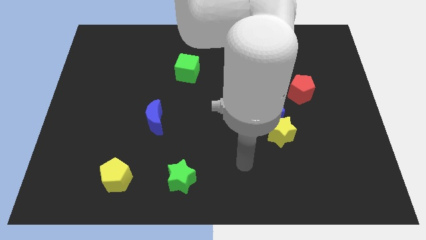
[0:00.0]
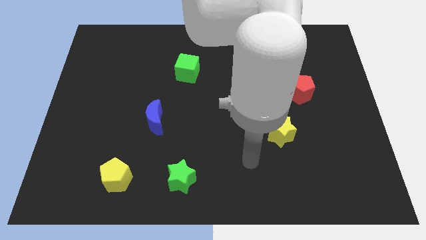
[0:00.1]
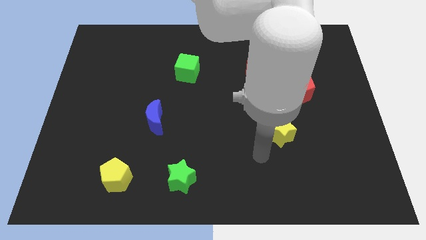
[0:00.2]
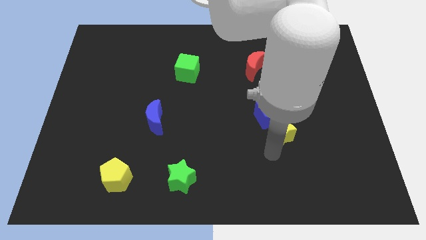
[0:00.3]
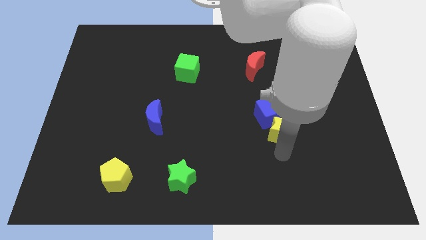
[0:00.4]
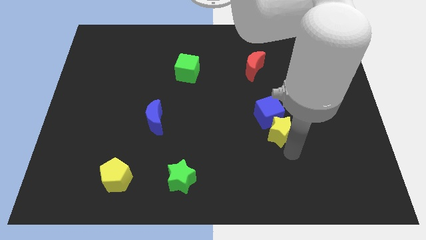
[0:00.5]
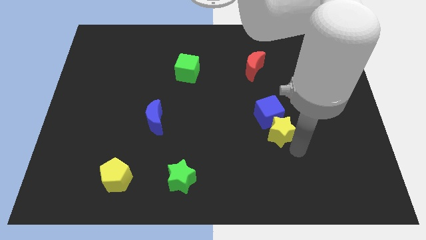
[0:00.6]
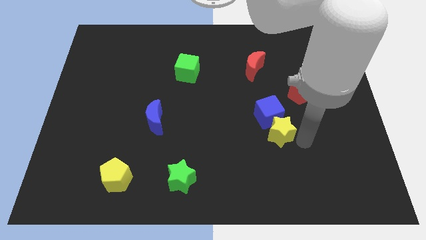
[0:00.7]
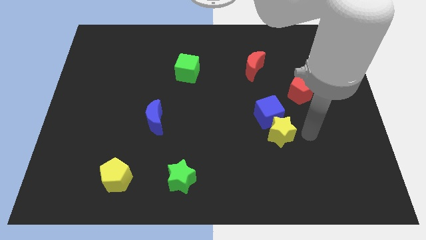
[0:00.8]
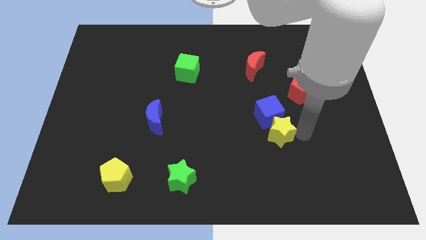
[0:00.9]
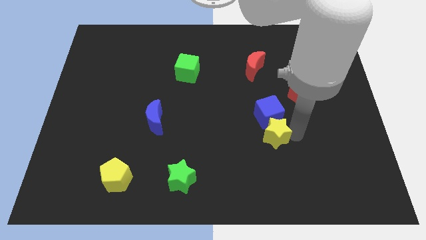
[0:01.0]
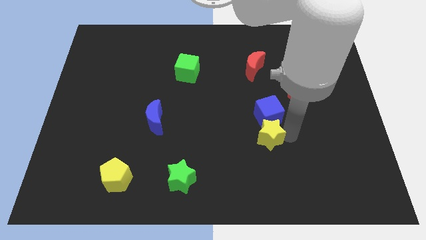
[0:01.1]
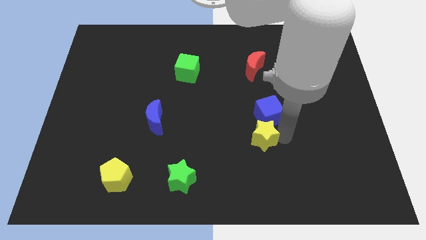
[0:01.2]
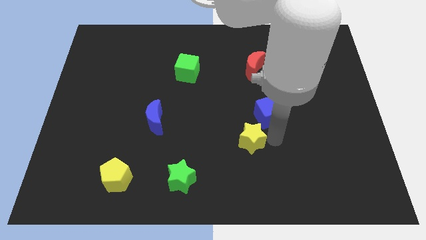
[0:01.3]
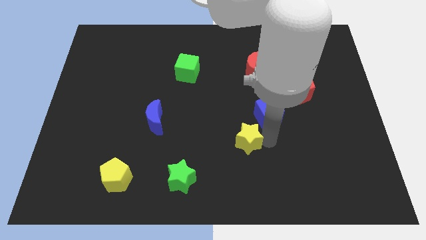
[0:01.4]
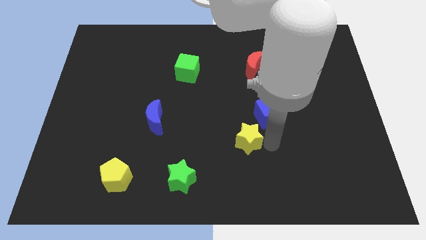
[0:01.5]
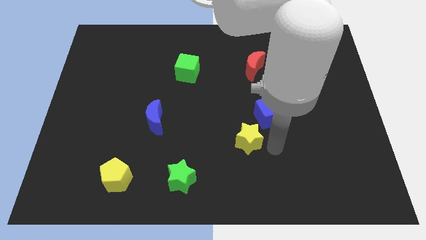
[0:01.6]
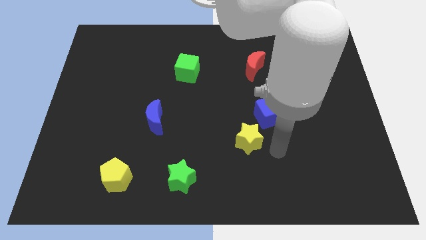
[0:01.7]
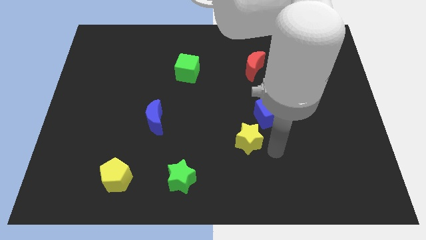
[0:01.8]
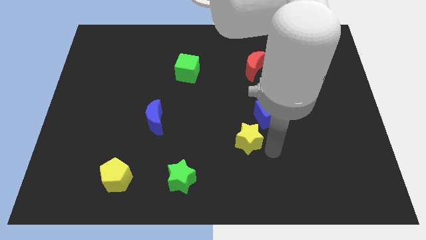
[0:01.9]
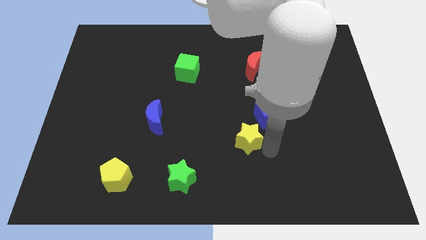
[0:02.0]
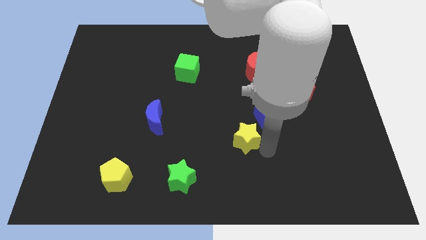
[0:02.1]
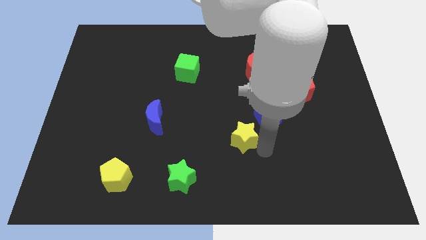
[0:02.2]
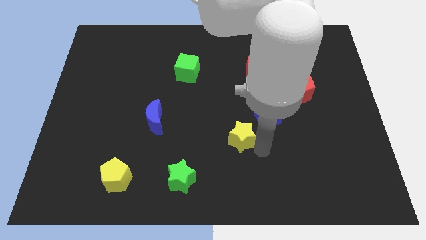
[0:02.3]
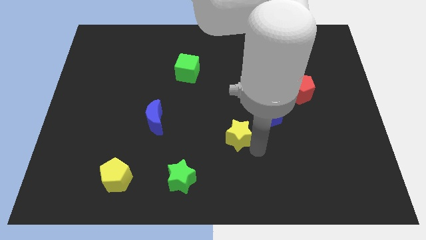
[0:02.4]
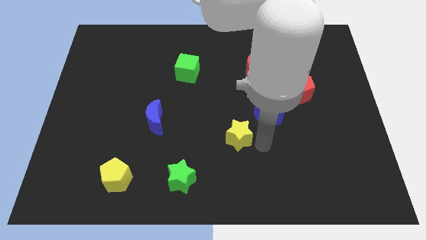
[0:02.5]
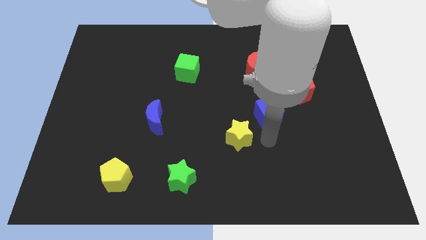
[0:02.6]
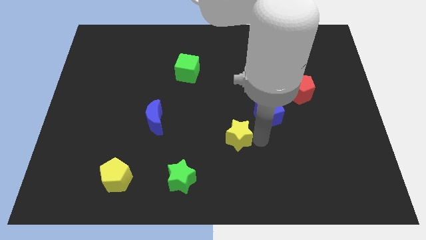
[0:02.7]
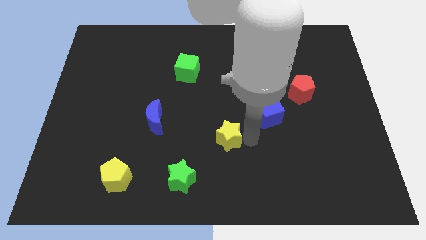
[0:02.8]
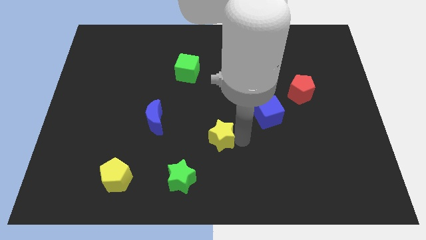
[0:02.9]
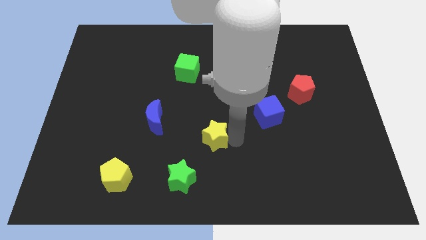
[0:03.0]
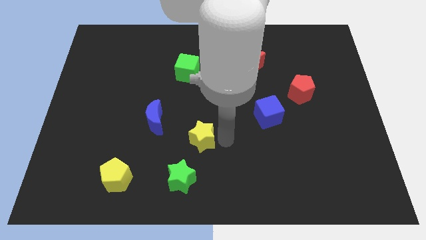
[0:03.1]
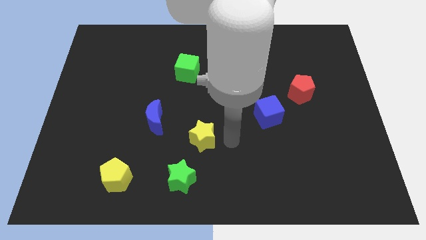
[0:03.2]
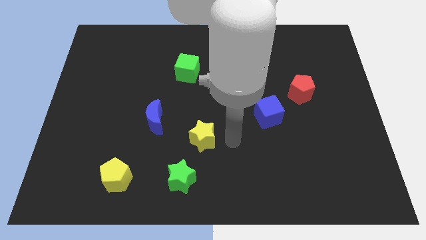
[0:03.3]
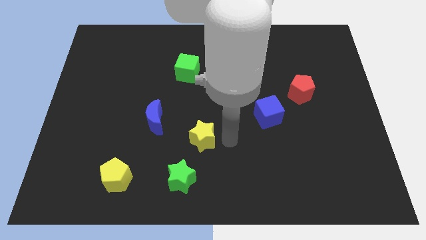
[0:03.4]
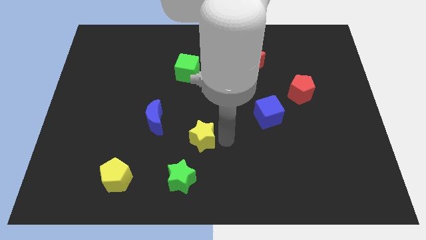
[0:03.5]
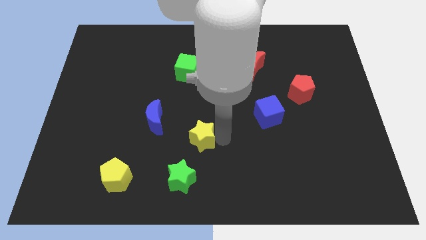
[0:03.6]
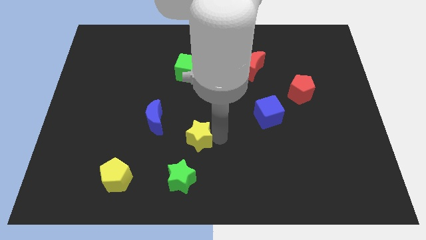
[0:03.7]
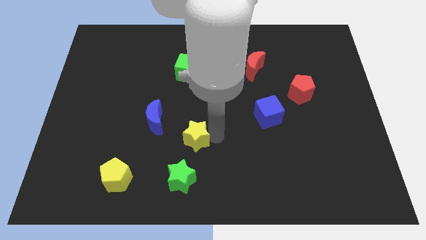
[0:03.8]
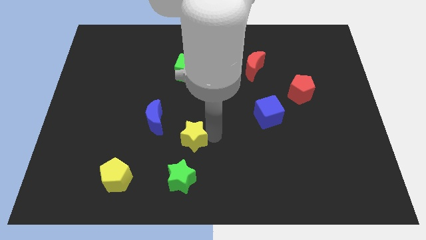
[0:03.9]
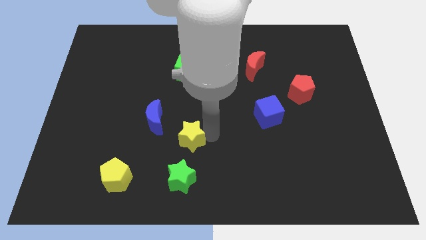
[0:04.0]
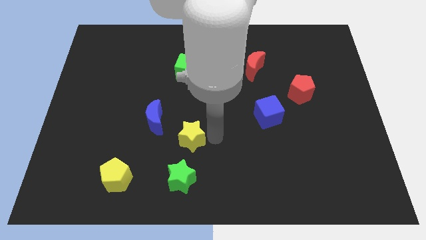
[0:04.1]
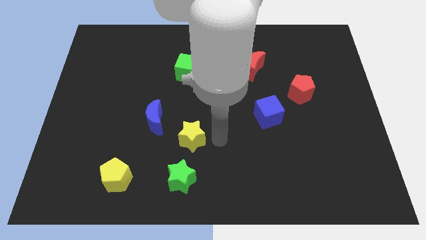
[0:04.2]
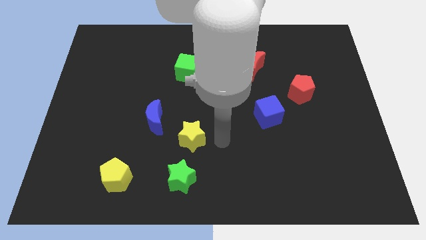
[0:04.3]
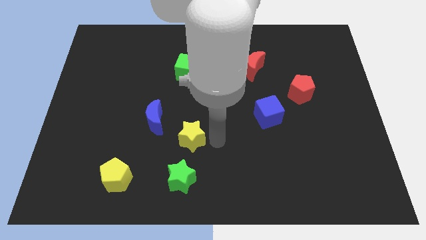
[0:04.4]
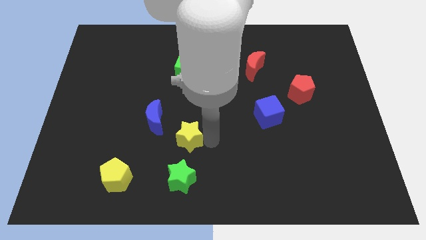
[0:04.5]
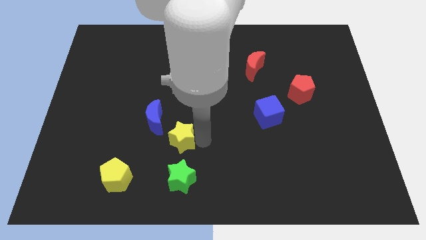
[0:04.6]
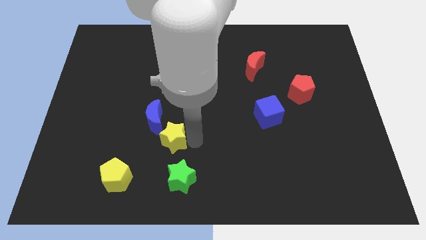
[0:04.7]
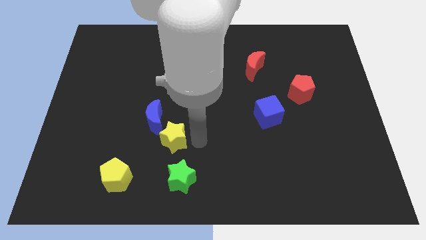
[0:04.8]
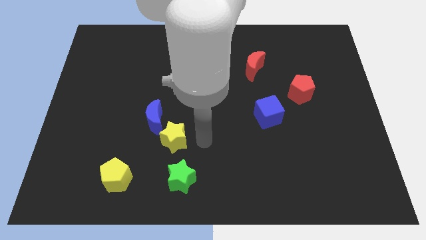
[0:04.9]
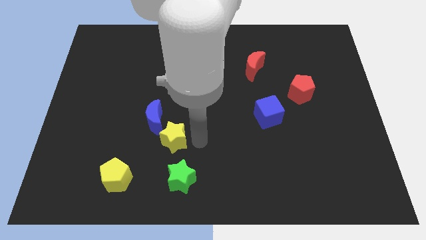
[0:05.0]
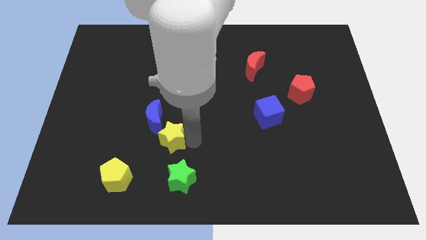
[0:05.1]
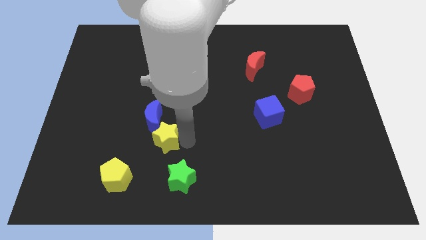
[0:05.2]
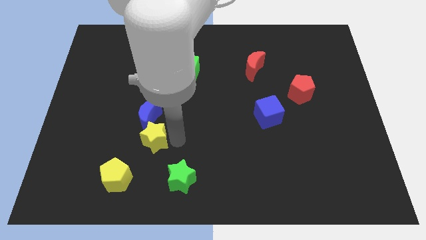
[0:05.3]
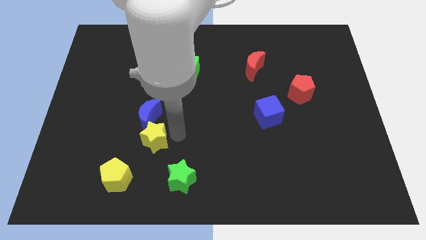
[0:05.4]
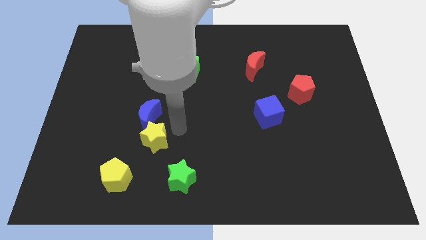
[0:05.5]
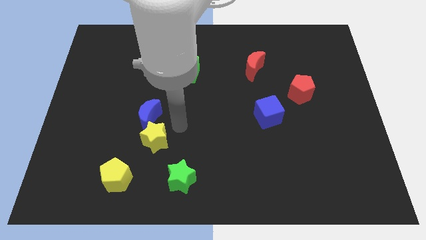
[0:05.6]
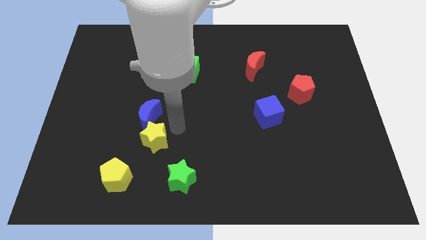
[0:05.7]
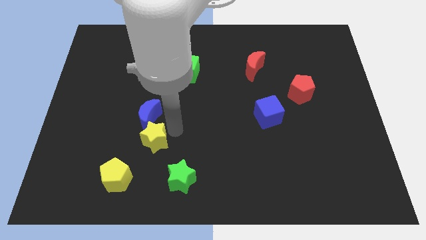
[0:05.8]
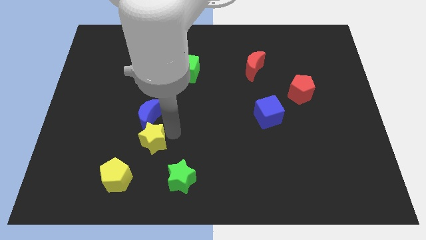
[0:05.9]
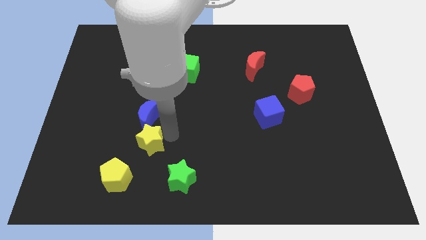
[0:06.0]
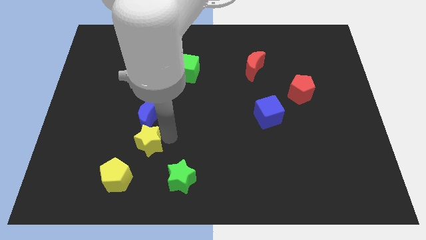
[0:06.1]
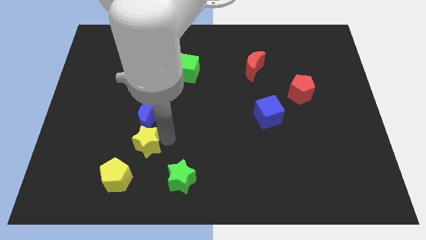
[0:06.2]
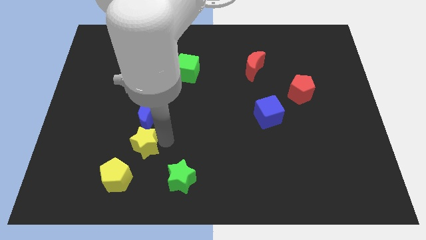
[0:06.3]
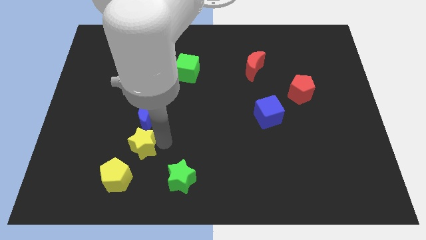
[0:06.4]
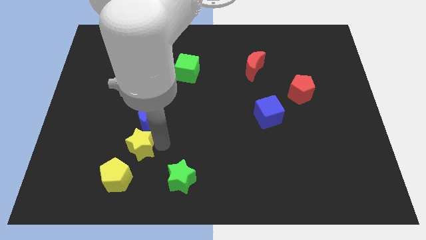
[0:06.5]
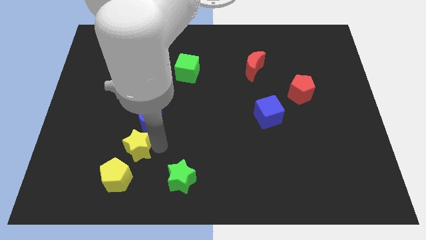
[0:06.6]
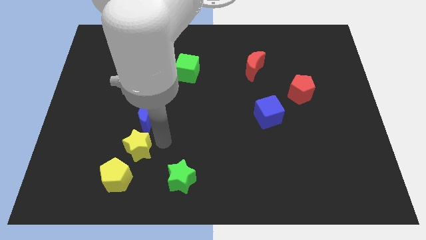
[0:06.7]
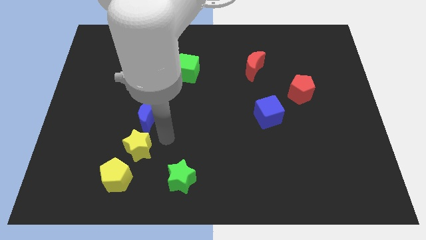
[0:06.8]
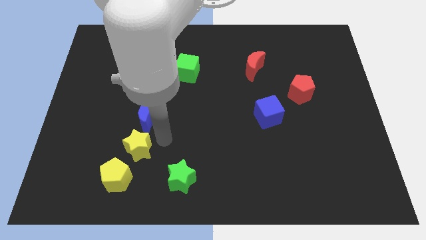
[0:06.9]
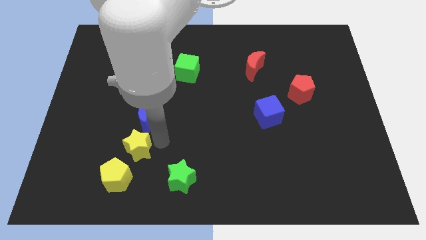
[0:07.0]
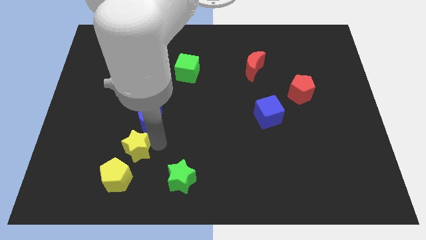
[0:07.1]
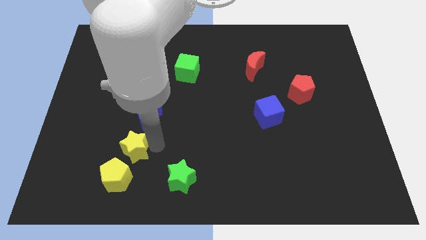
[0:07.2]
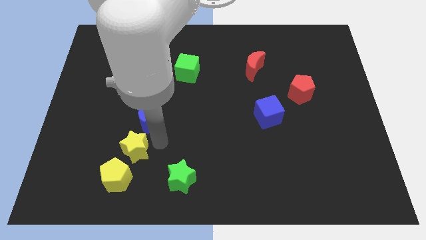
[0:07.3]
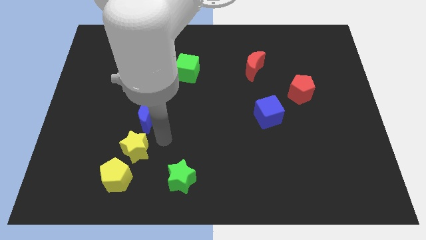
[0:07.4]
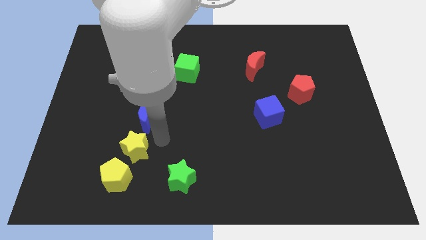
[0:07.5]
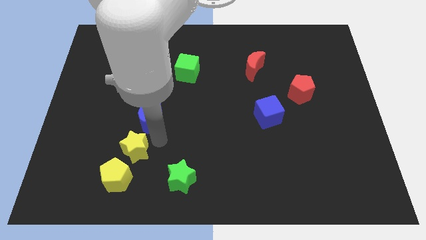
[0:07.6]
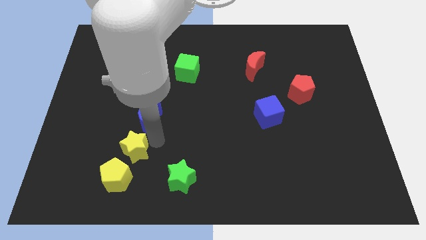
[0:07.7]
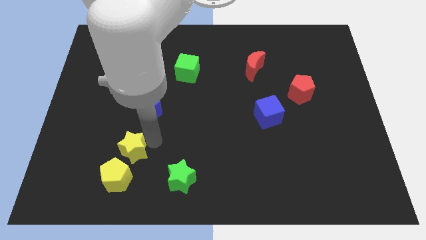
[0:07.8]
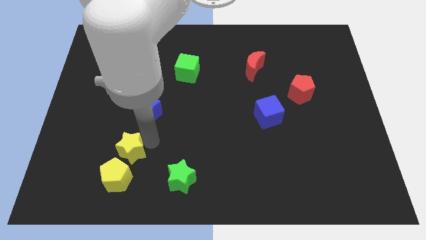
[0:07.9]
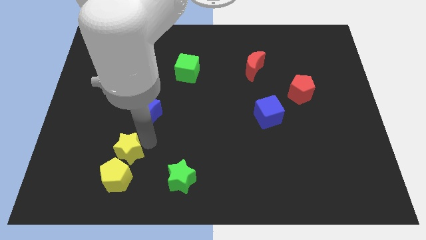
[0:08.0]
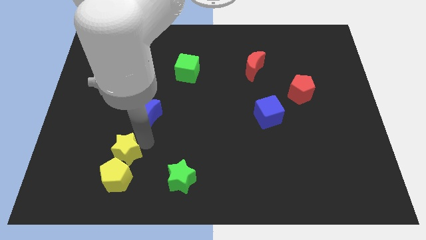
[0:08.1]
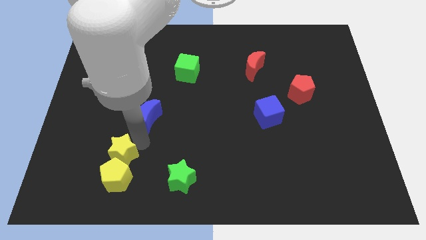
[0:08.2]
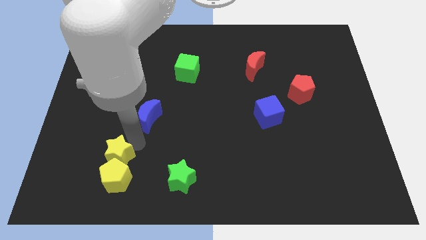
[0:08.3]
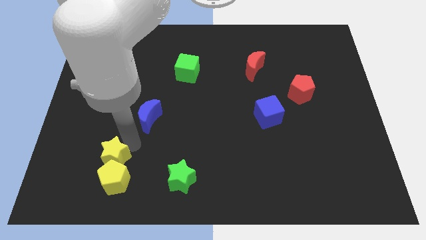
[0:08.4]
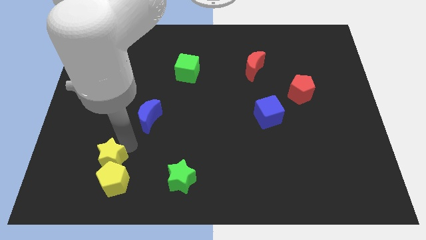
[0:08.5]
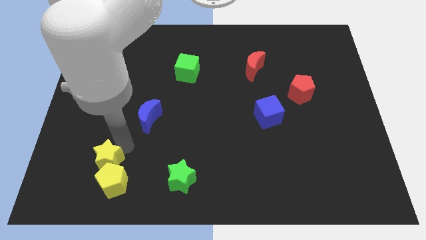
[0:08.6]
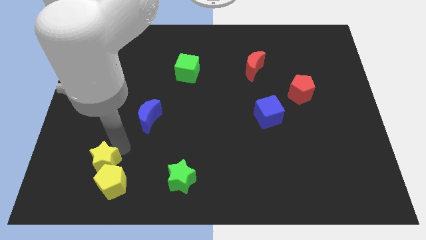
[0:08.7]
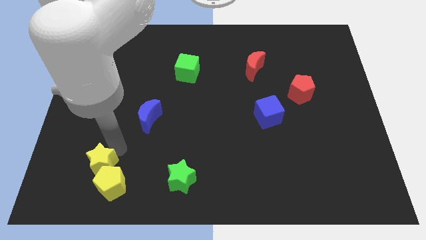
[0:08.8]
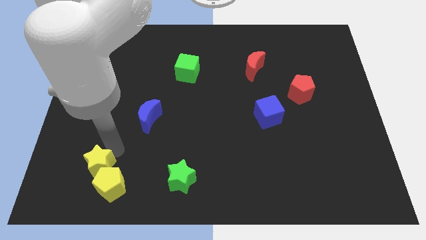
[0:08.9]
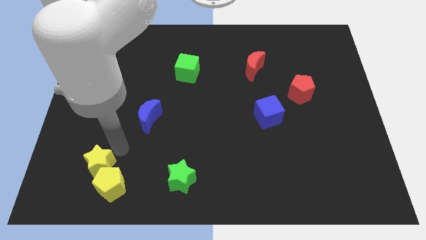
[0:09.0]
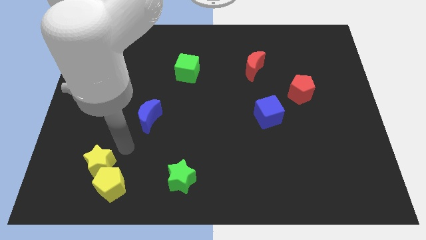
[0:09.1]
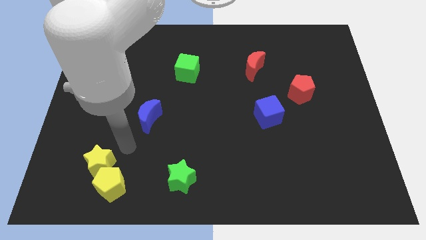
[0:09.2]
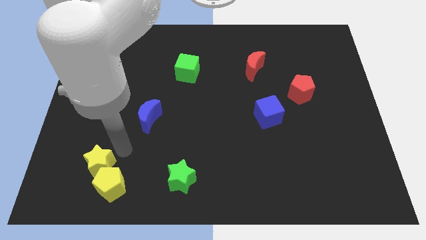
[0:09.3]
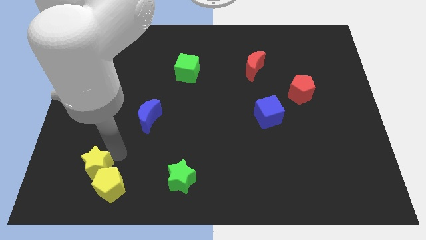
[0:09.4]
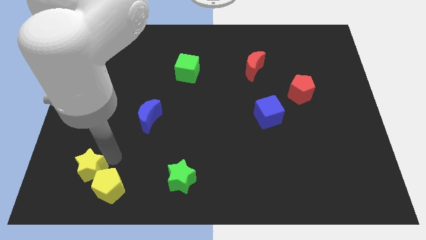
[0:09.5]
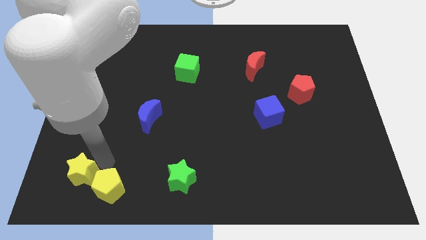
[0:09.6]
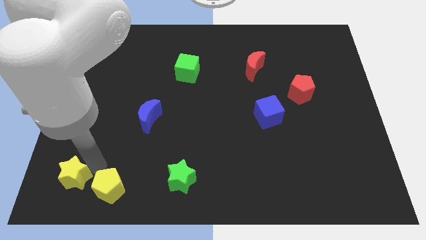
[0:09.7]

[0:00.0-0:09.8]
put the yellow star to the bottom left corner
